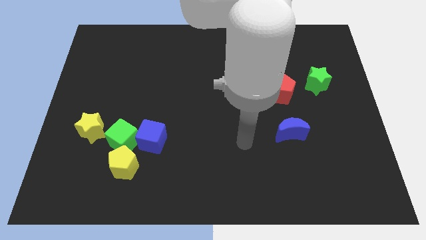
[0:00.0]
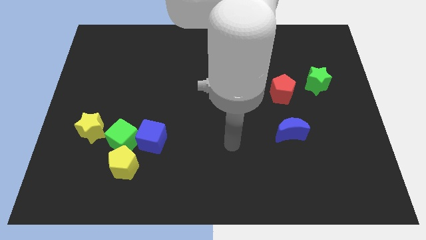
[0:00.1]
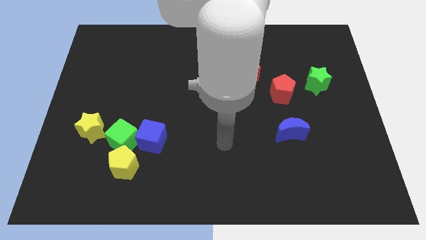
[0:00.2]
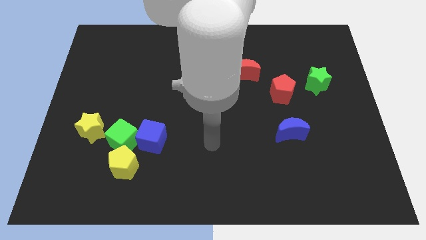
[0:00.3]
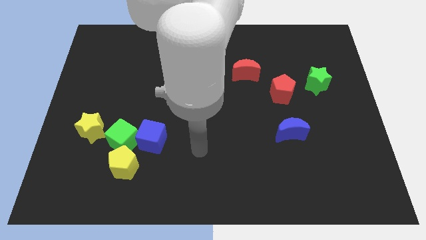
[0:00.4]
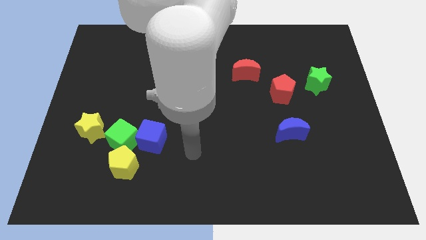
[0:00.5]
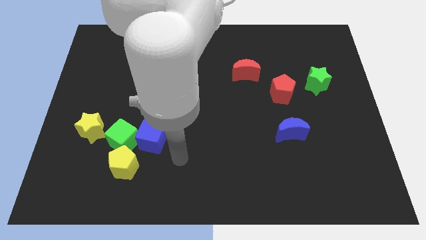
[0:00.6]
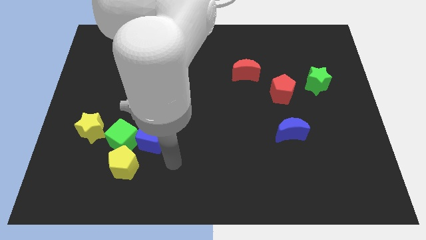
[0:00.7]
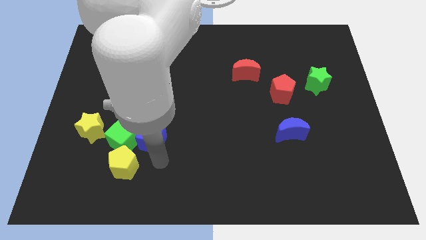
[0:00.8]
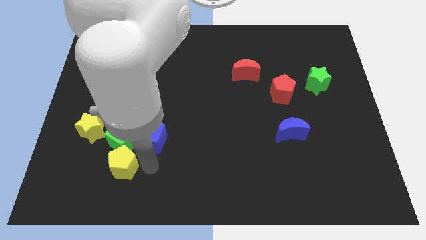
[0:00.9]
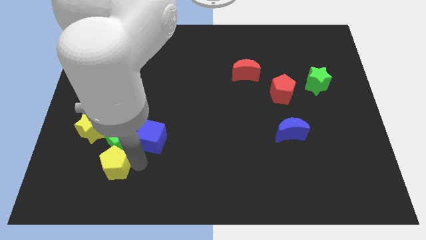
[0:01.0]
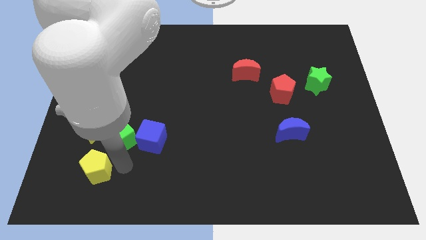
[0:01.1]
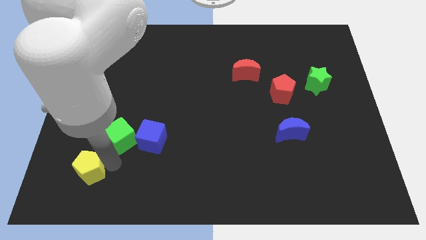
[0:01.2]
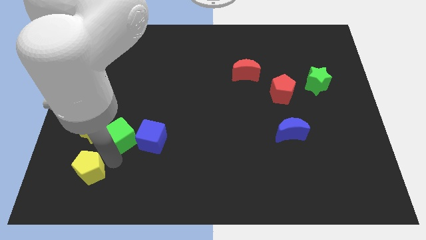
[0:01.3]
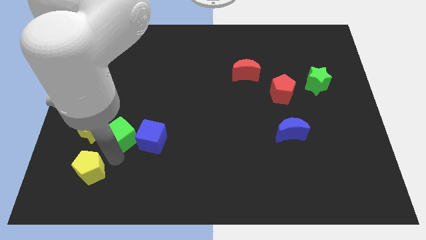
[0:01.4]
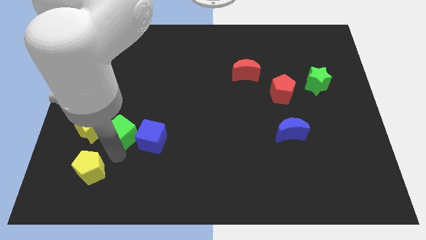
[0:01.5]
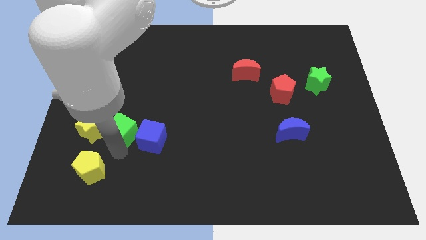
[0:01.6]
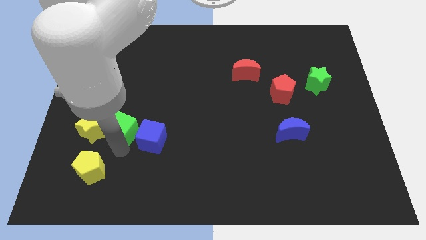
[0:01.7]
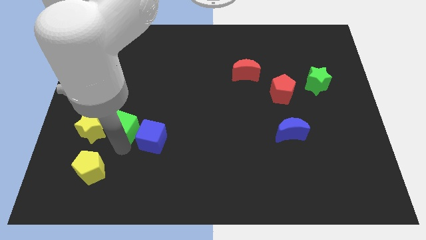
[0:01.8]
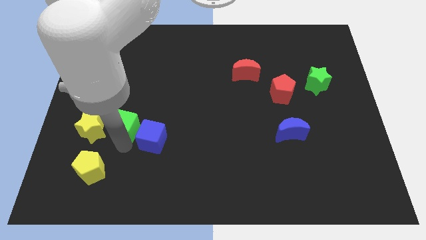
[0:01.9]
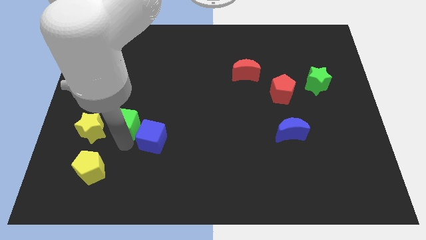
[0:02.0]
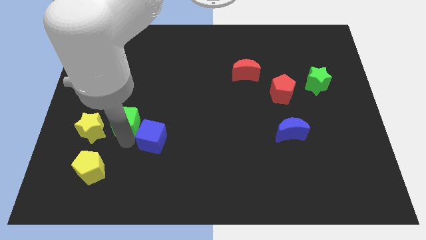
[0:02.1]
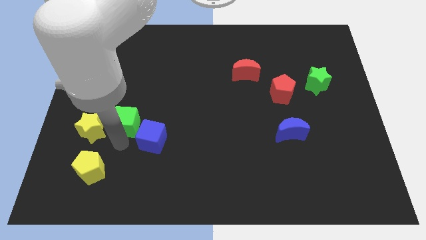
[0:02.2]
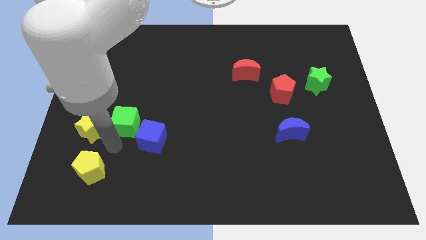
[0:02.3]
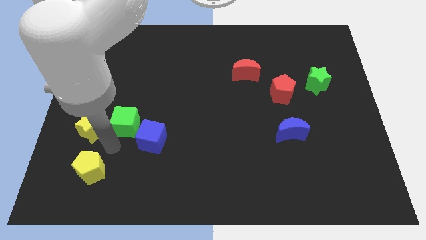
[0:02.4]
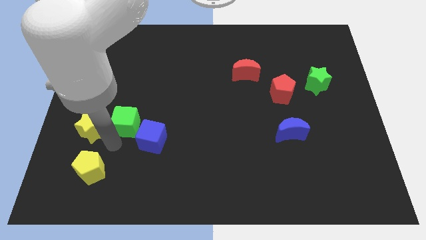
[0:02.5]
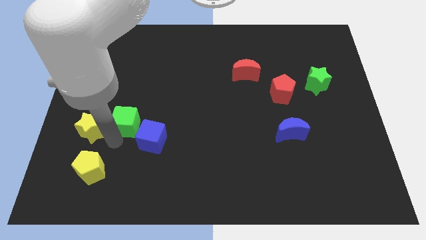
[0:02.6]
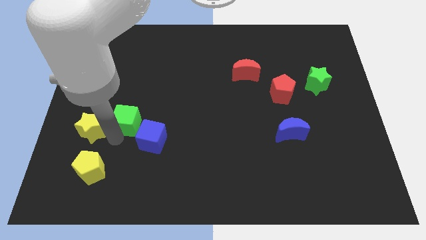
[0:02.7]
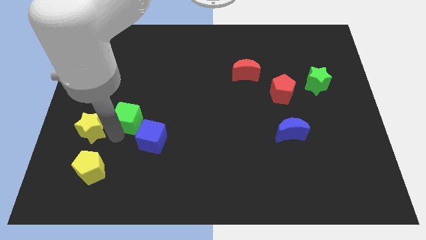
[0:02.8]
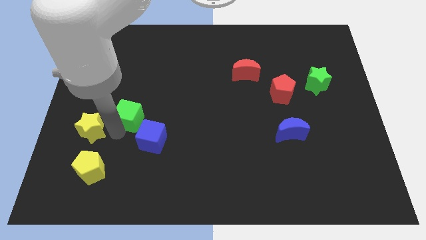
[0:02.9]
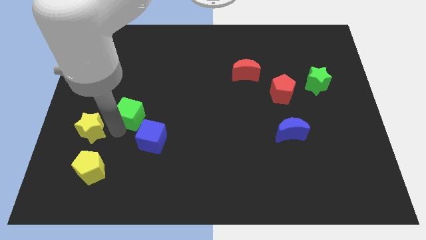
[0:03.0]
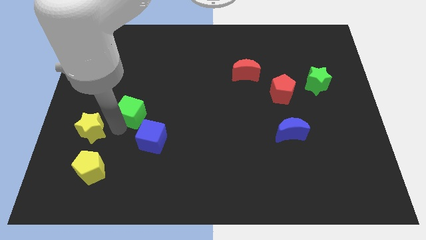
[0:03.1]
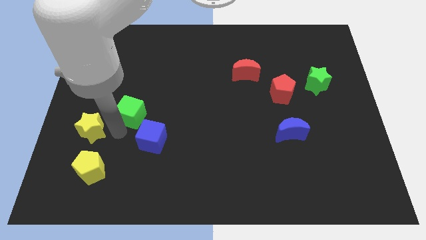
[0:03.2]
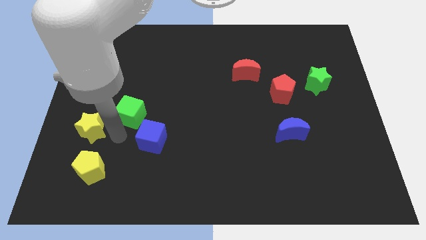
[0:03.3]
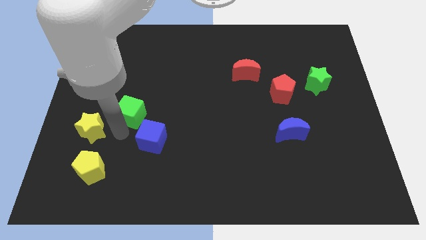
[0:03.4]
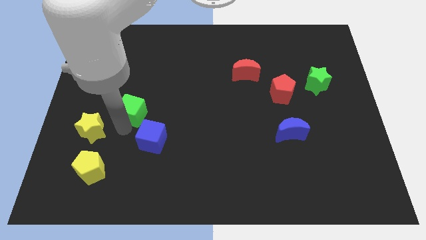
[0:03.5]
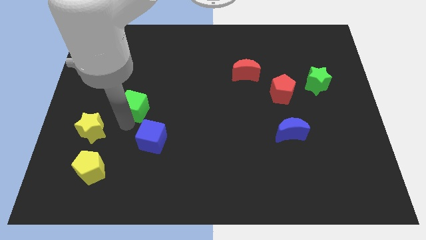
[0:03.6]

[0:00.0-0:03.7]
move the green cube away from the blue cube, yellow pentagon, and yellow star

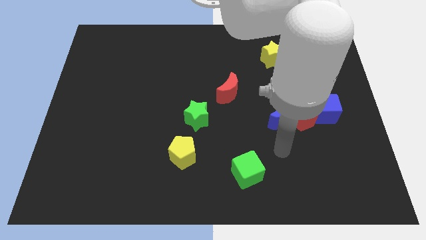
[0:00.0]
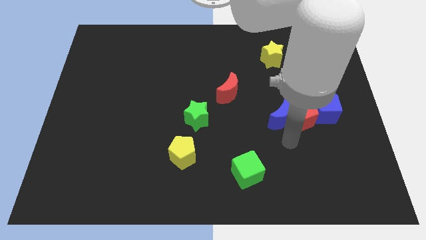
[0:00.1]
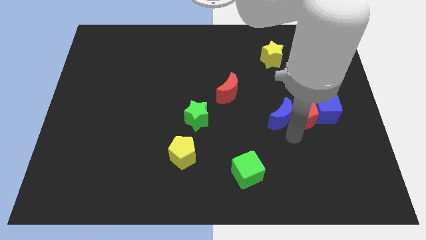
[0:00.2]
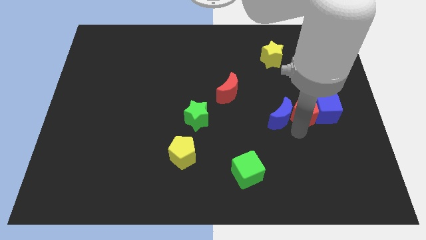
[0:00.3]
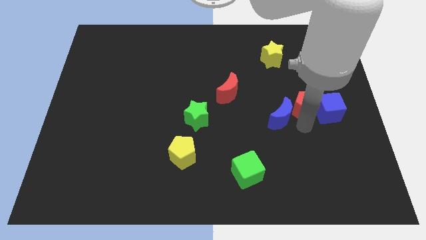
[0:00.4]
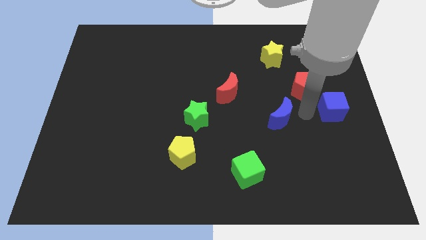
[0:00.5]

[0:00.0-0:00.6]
pull the blue moon apart from the red pentagon

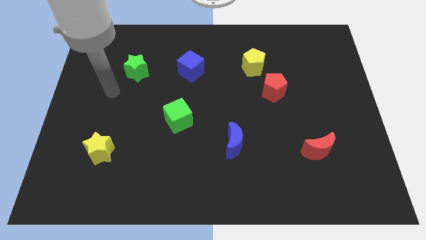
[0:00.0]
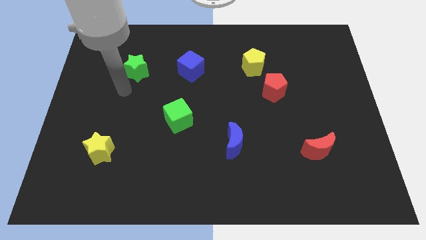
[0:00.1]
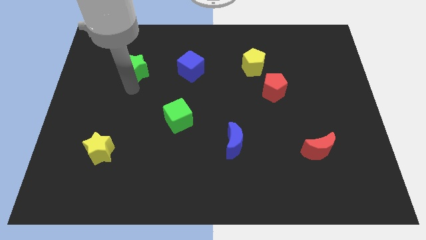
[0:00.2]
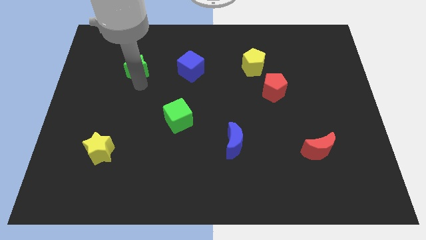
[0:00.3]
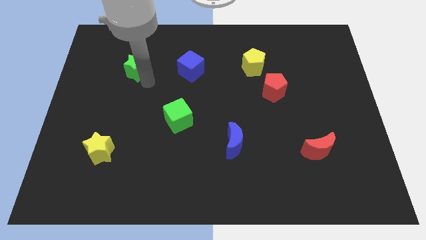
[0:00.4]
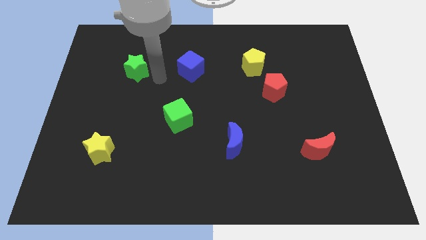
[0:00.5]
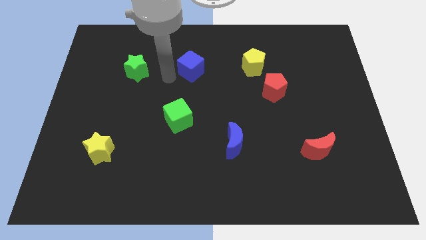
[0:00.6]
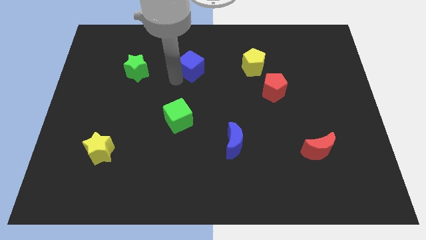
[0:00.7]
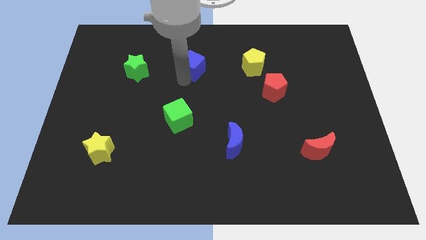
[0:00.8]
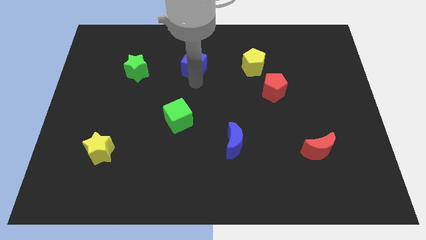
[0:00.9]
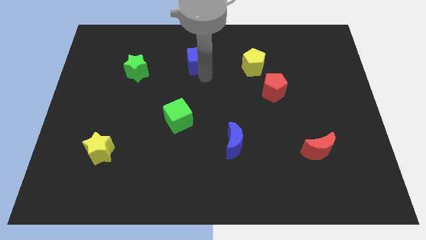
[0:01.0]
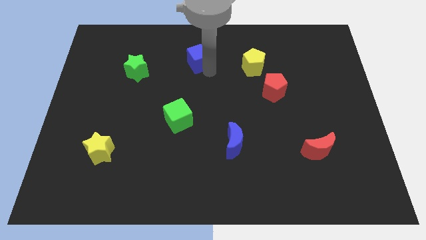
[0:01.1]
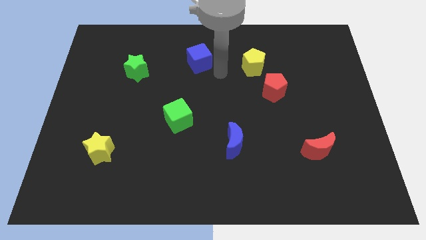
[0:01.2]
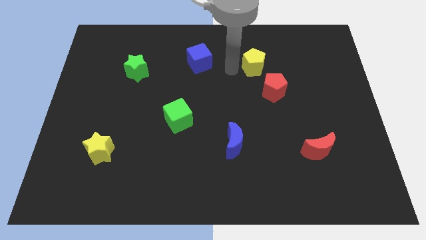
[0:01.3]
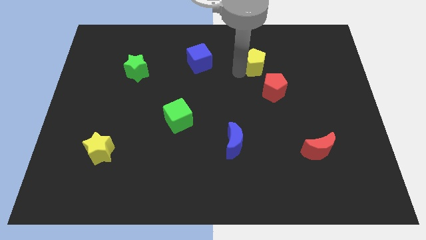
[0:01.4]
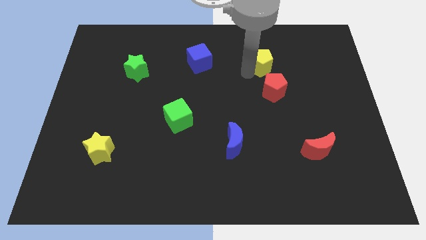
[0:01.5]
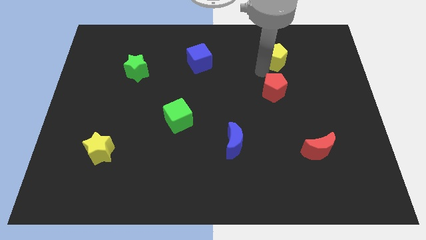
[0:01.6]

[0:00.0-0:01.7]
pull the red pentagon apart from the yellow pentagon

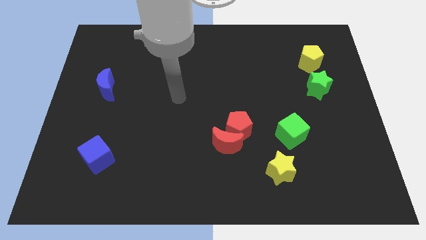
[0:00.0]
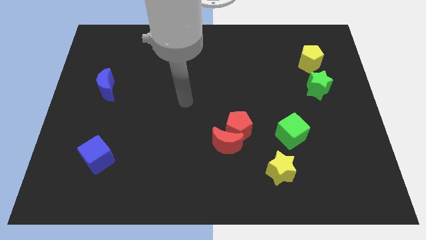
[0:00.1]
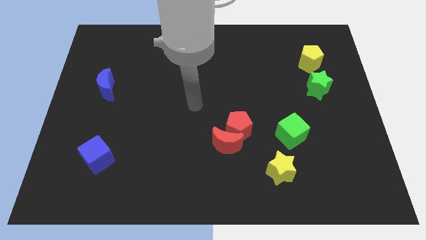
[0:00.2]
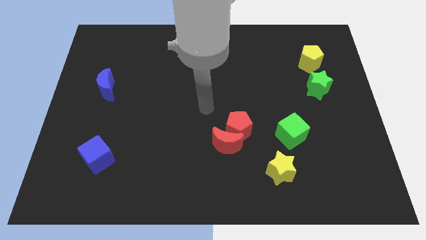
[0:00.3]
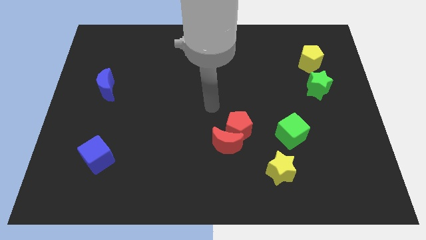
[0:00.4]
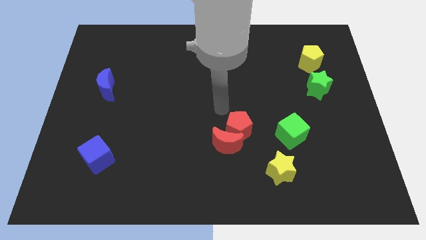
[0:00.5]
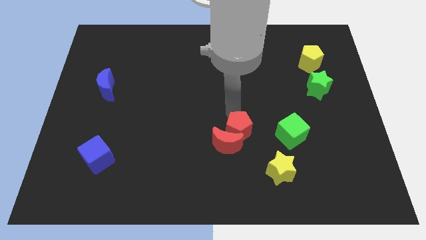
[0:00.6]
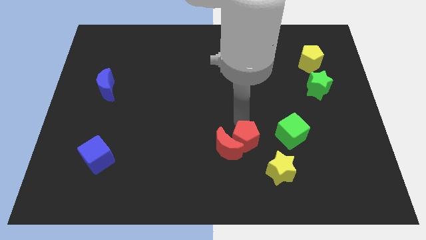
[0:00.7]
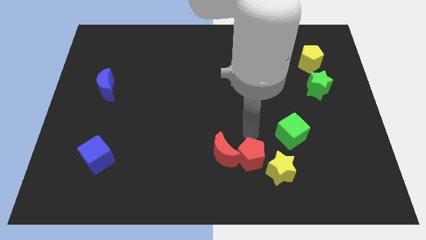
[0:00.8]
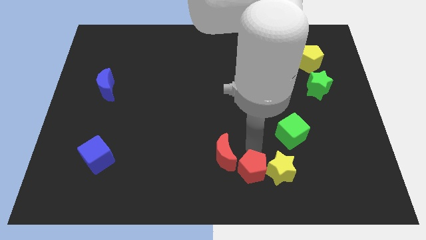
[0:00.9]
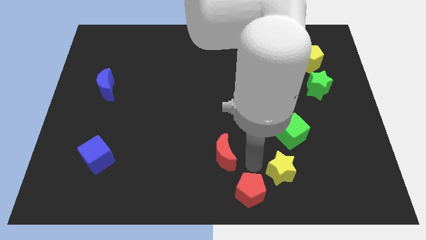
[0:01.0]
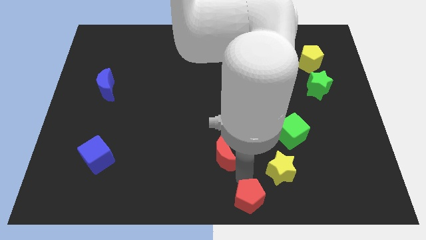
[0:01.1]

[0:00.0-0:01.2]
move the red moon away from the red pentagon

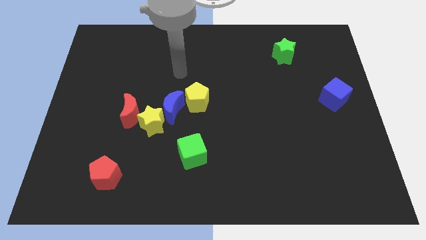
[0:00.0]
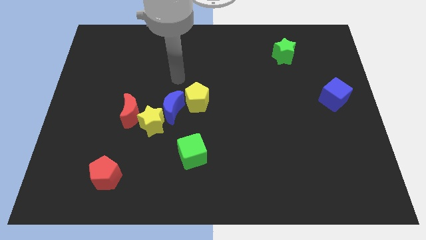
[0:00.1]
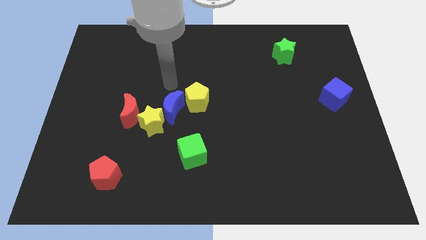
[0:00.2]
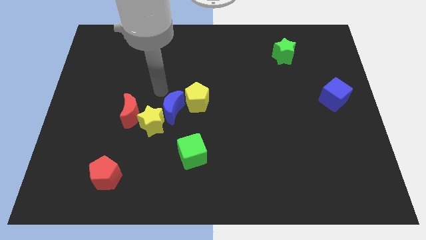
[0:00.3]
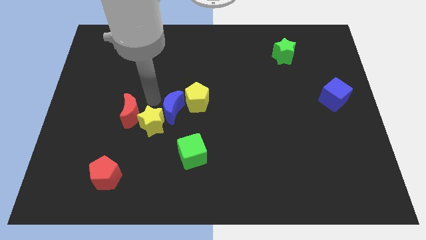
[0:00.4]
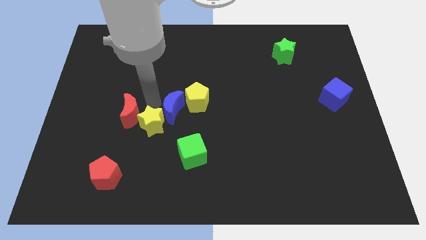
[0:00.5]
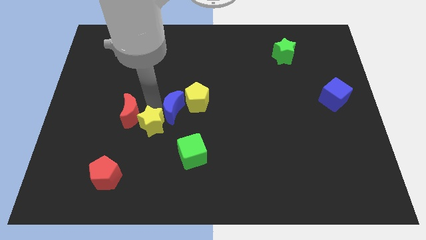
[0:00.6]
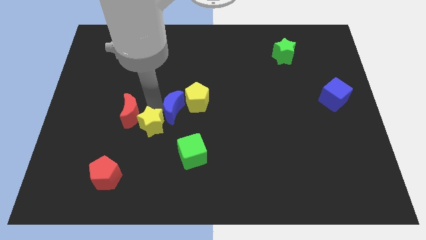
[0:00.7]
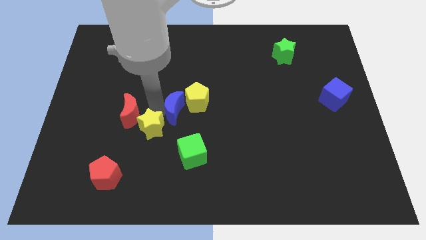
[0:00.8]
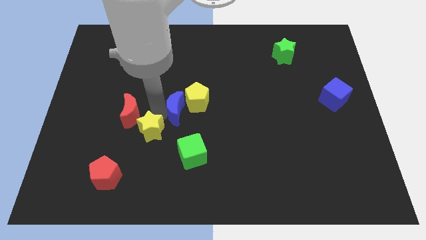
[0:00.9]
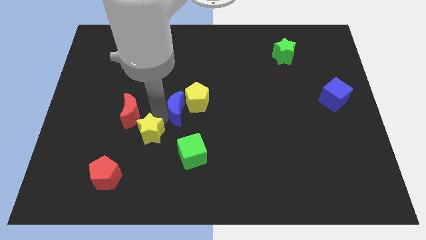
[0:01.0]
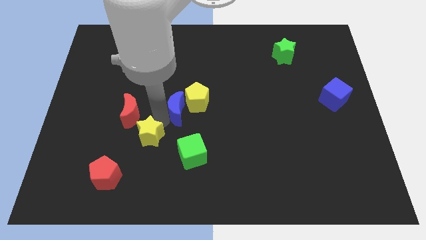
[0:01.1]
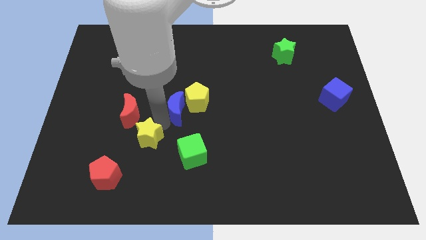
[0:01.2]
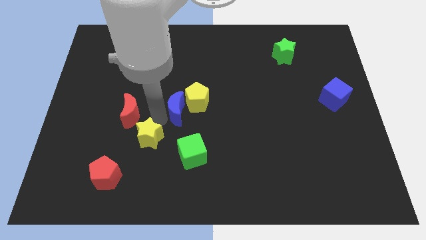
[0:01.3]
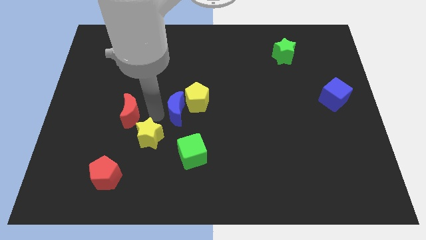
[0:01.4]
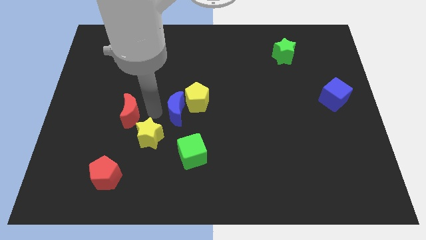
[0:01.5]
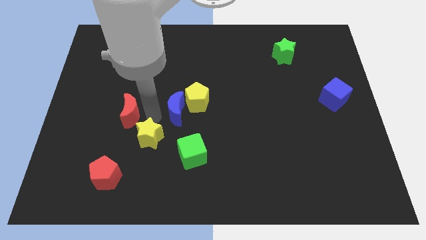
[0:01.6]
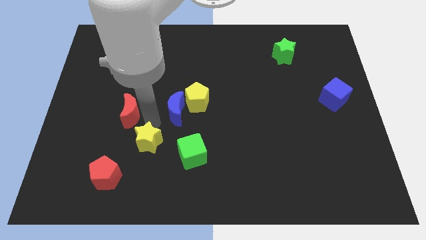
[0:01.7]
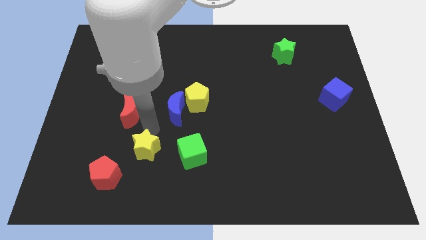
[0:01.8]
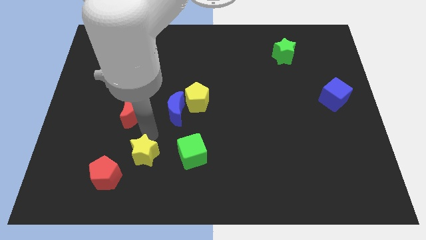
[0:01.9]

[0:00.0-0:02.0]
separate the yellow star from the red moon and blue moon
